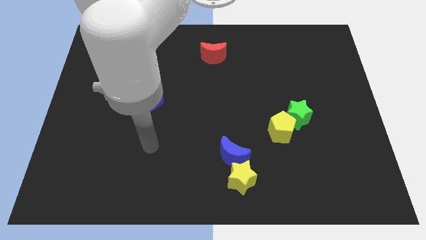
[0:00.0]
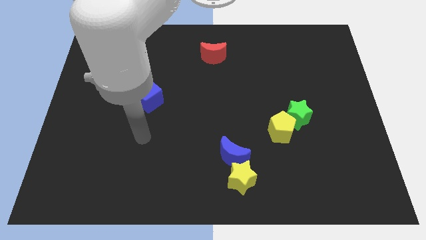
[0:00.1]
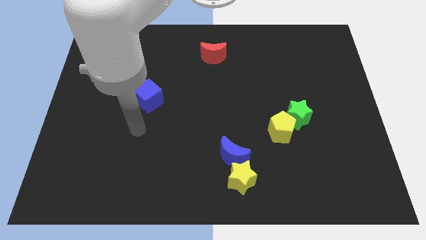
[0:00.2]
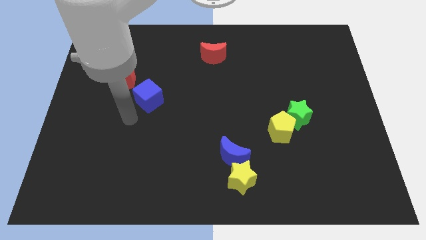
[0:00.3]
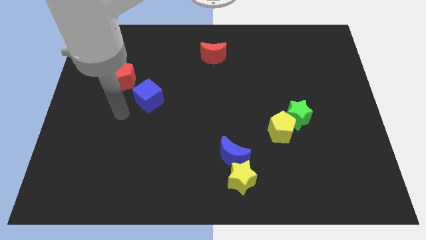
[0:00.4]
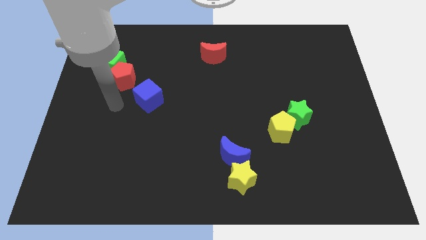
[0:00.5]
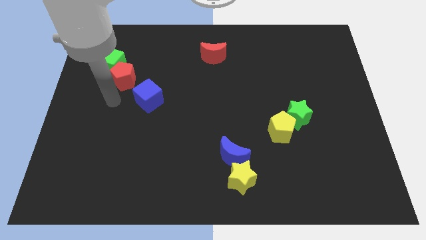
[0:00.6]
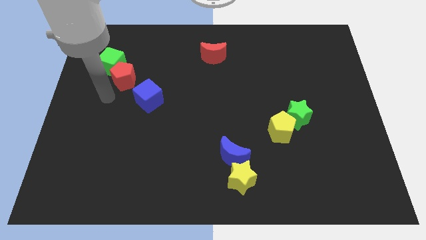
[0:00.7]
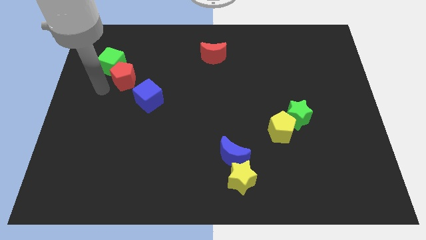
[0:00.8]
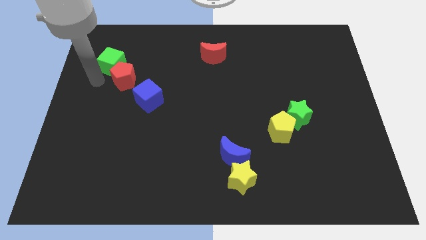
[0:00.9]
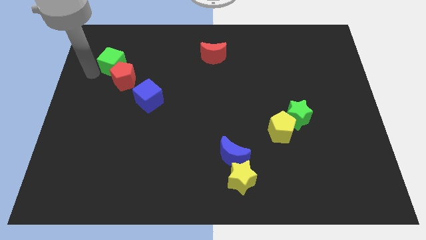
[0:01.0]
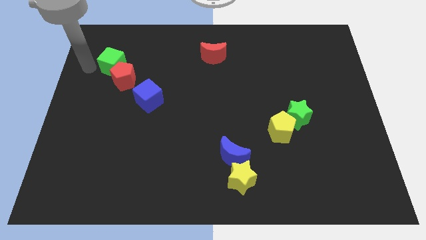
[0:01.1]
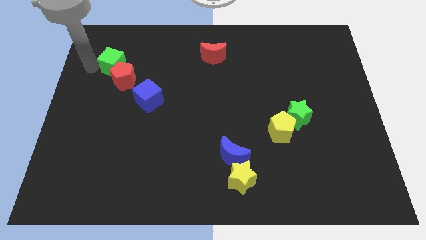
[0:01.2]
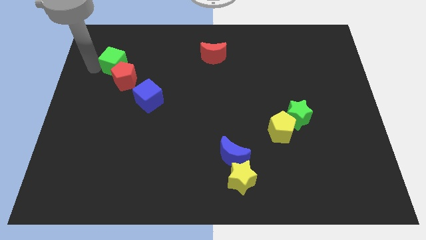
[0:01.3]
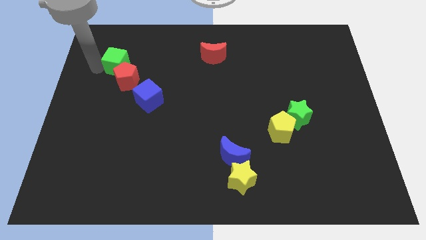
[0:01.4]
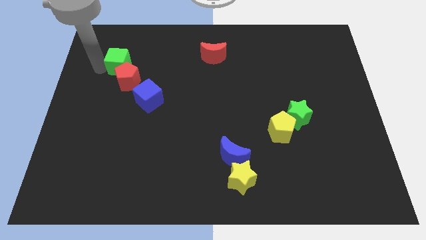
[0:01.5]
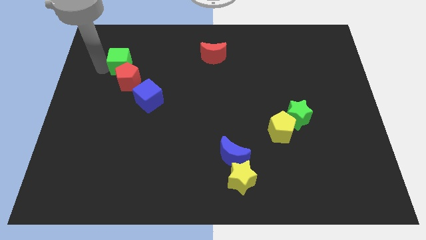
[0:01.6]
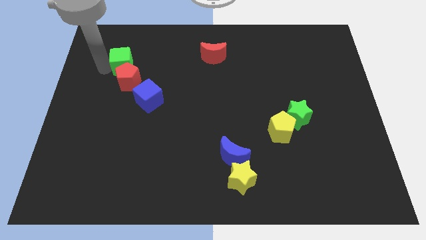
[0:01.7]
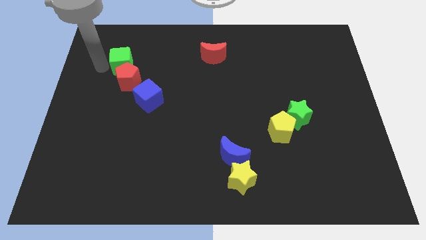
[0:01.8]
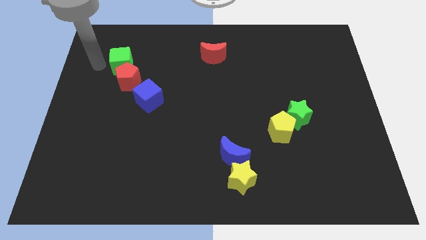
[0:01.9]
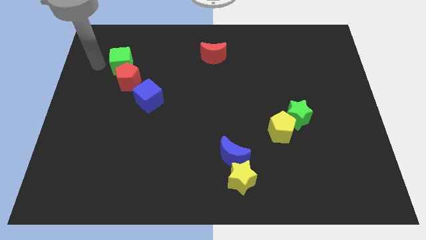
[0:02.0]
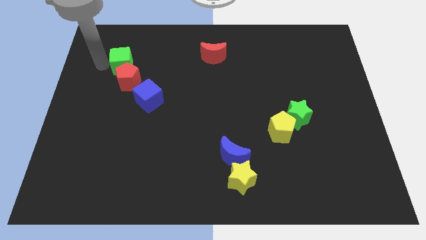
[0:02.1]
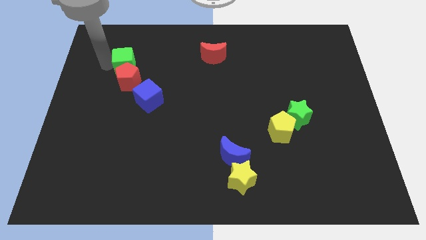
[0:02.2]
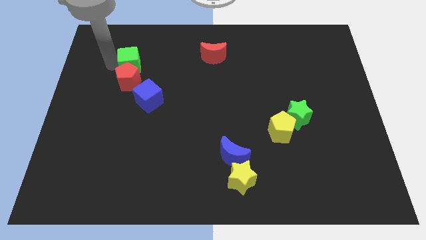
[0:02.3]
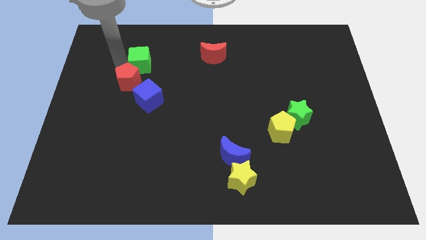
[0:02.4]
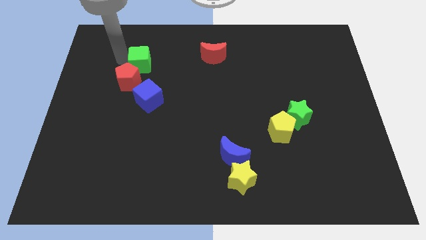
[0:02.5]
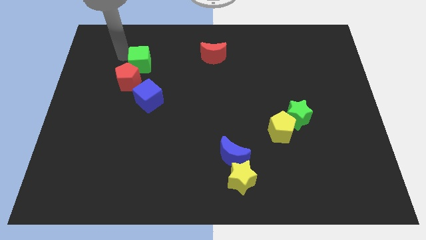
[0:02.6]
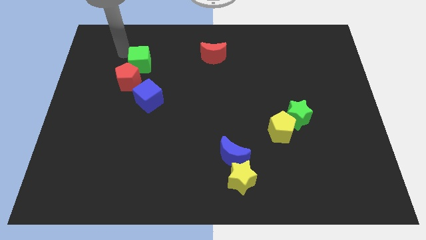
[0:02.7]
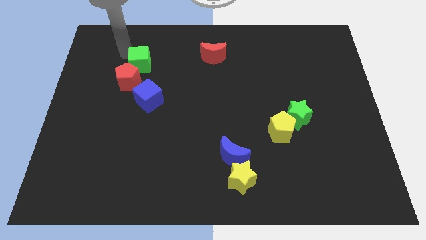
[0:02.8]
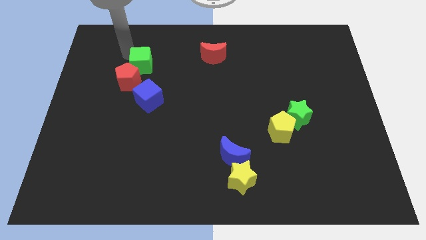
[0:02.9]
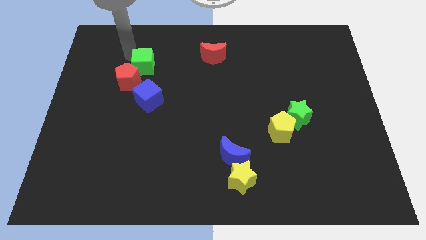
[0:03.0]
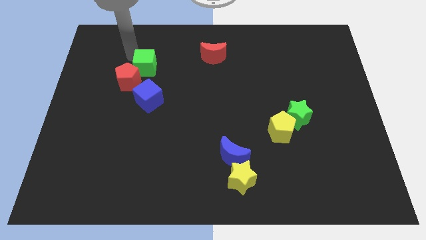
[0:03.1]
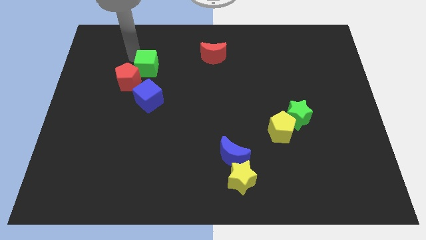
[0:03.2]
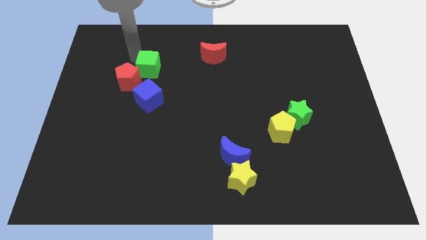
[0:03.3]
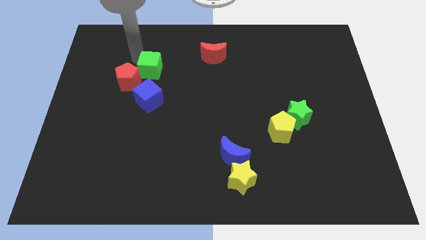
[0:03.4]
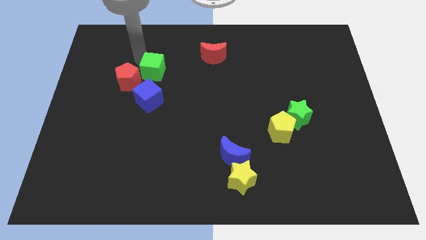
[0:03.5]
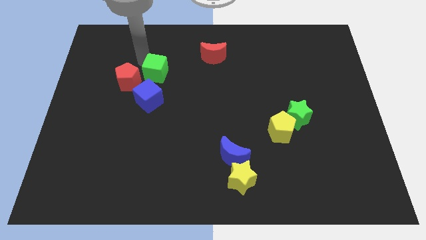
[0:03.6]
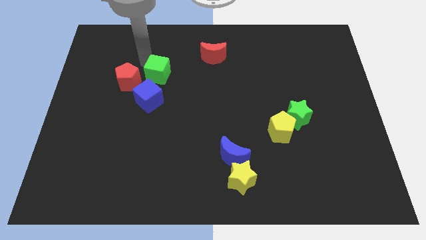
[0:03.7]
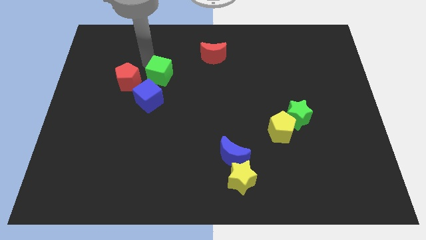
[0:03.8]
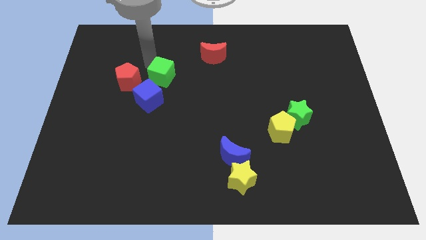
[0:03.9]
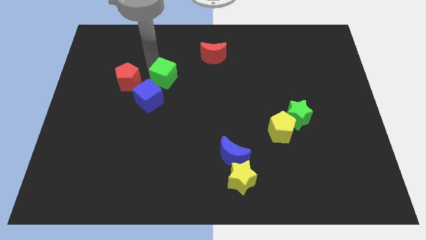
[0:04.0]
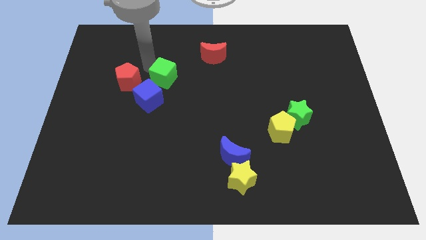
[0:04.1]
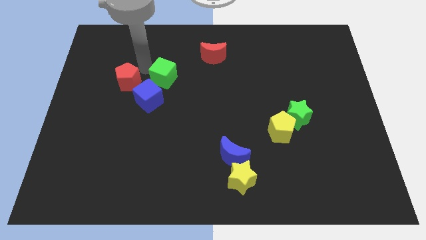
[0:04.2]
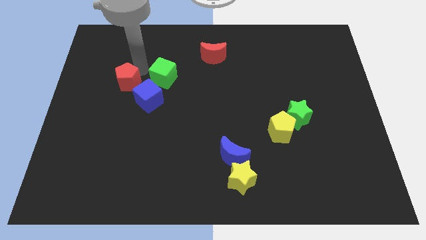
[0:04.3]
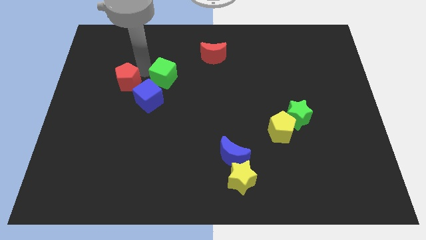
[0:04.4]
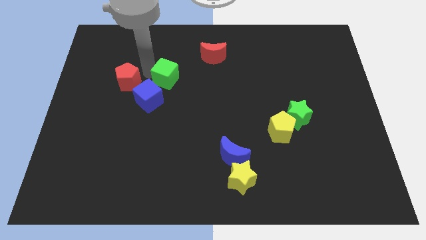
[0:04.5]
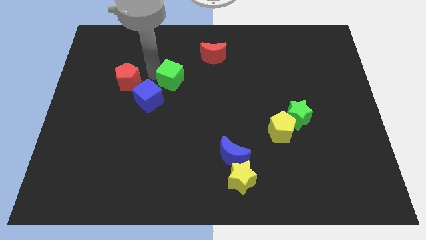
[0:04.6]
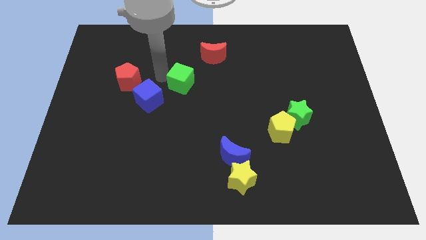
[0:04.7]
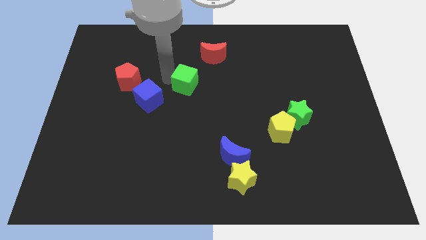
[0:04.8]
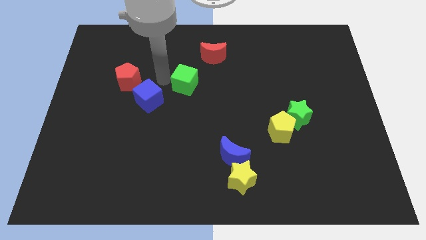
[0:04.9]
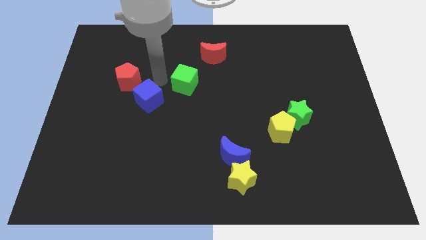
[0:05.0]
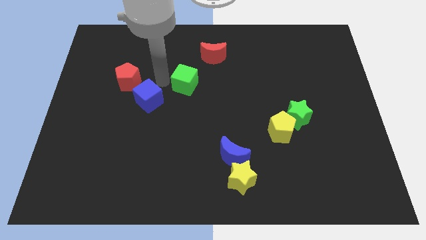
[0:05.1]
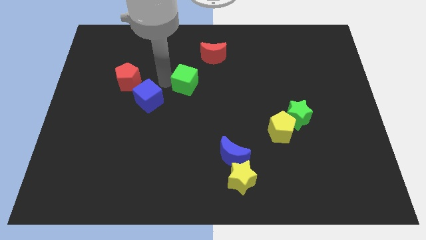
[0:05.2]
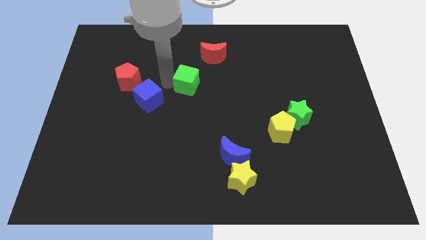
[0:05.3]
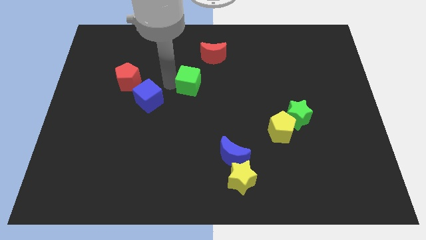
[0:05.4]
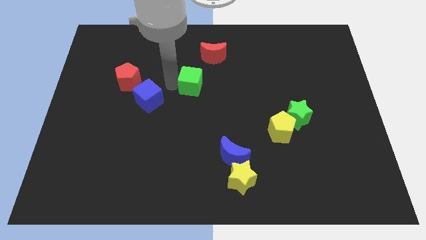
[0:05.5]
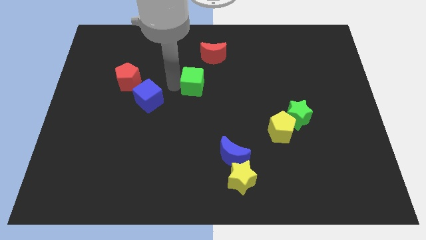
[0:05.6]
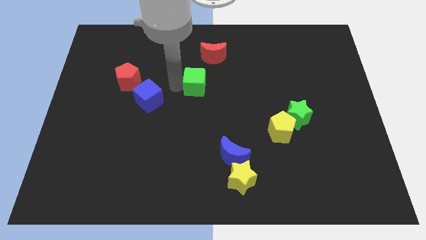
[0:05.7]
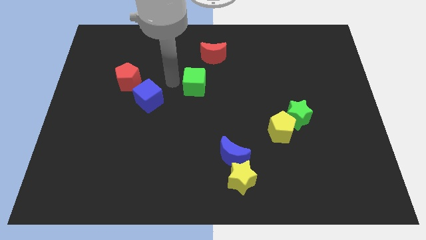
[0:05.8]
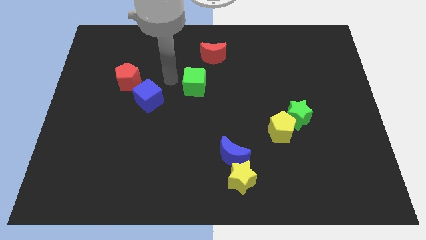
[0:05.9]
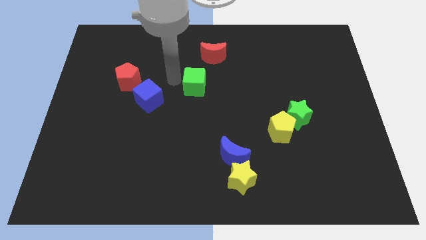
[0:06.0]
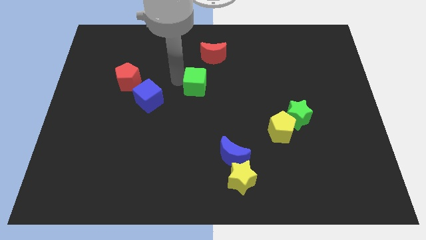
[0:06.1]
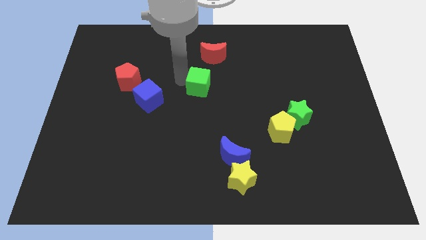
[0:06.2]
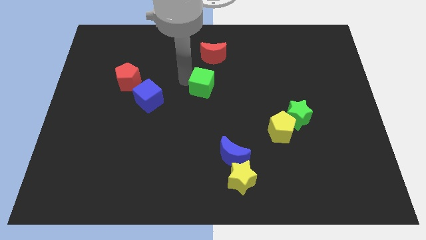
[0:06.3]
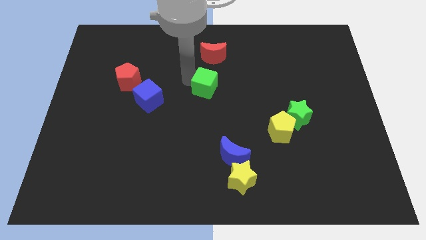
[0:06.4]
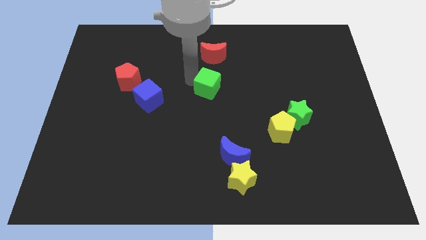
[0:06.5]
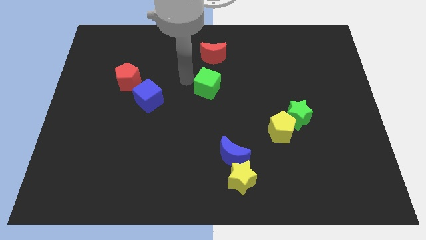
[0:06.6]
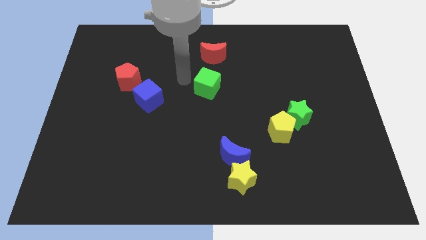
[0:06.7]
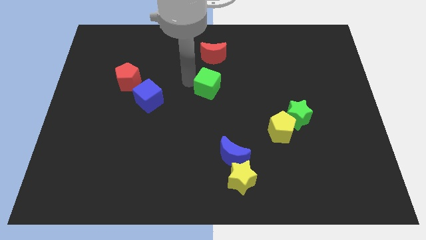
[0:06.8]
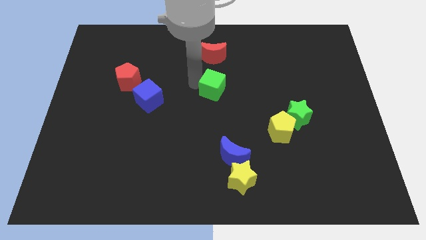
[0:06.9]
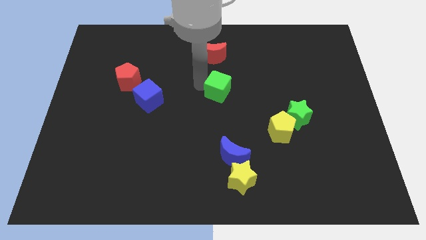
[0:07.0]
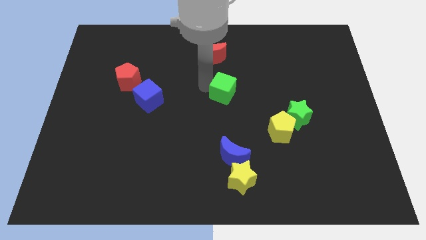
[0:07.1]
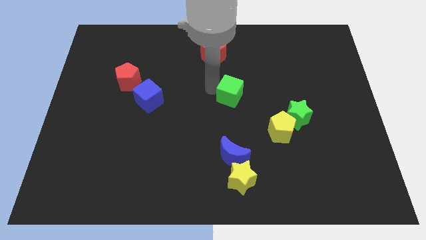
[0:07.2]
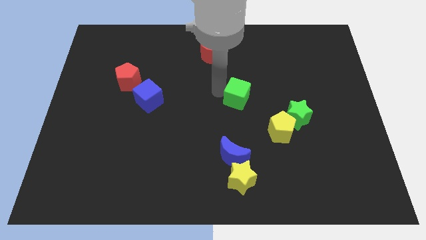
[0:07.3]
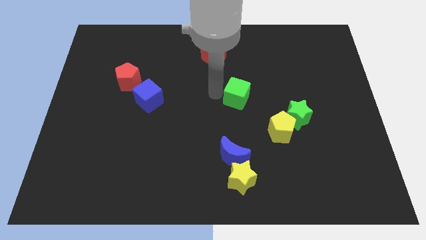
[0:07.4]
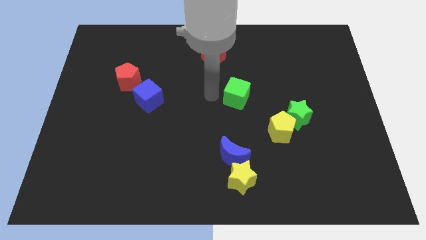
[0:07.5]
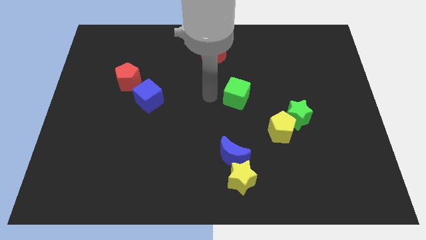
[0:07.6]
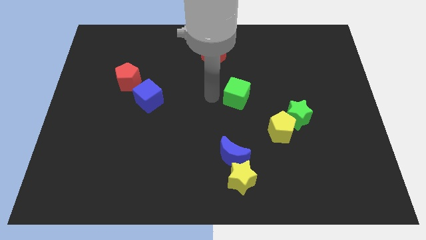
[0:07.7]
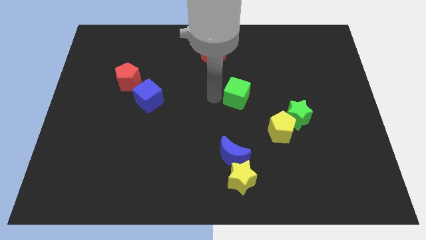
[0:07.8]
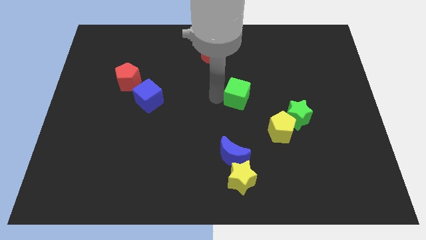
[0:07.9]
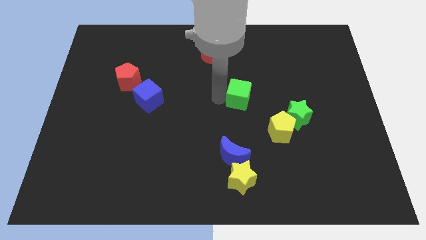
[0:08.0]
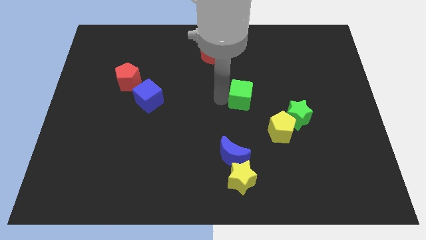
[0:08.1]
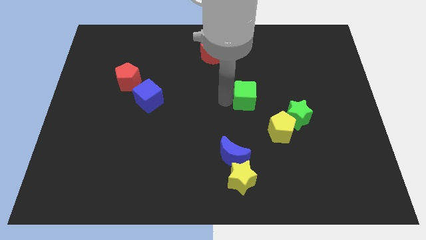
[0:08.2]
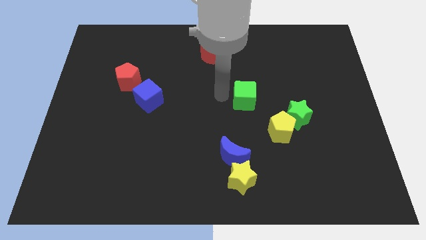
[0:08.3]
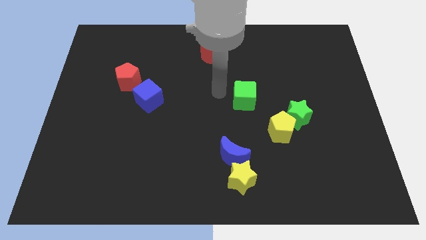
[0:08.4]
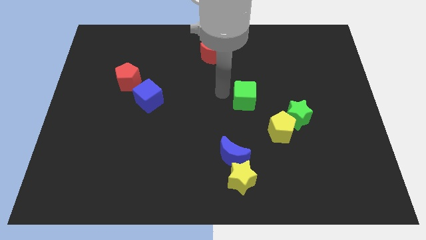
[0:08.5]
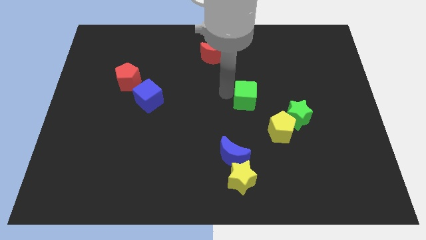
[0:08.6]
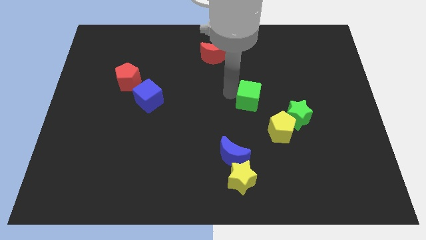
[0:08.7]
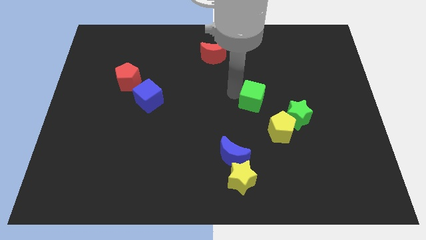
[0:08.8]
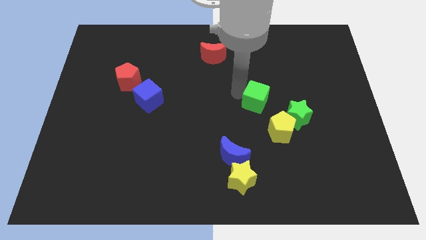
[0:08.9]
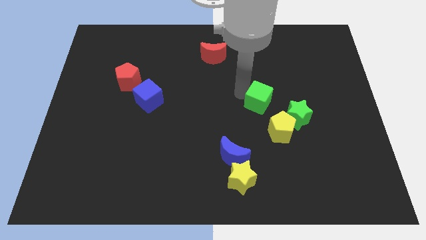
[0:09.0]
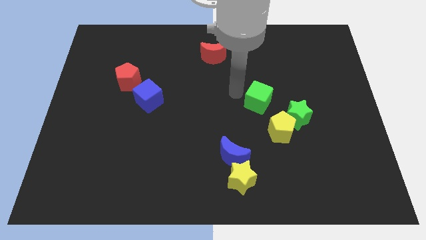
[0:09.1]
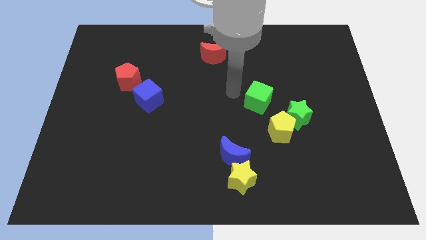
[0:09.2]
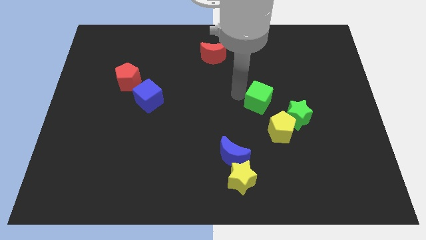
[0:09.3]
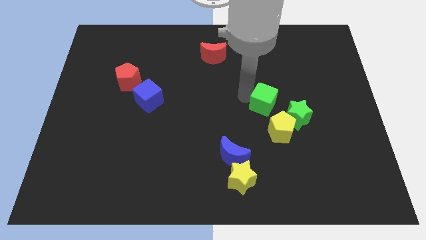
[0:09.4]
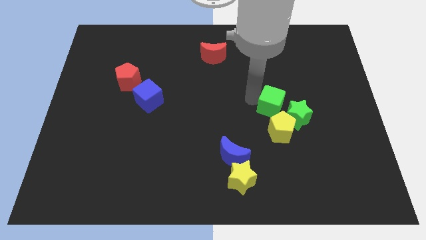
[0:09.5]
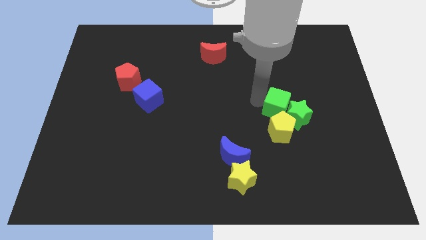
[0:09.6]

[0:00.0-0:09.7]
put the green cube towards the green star
